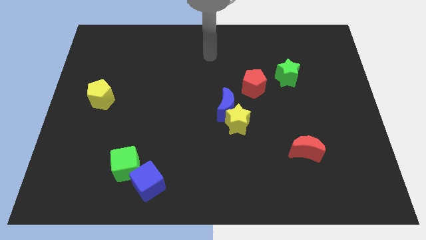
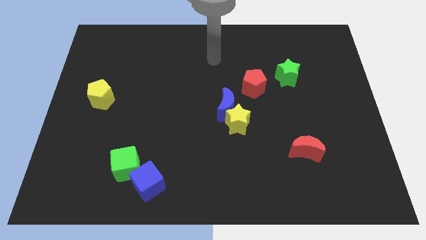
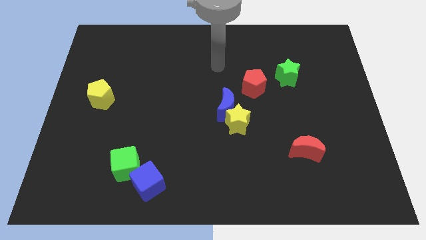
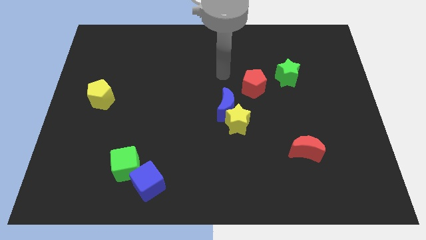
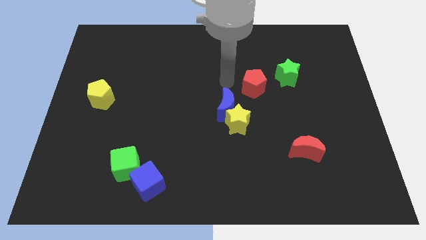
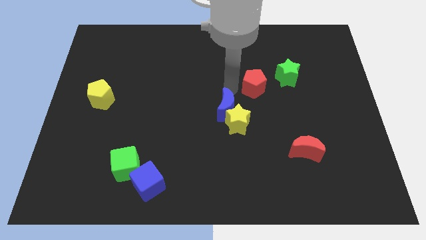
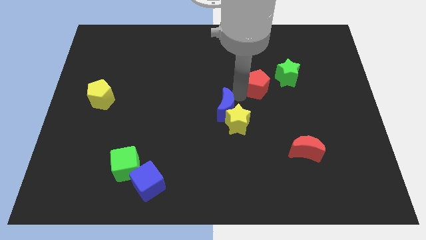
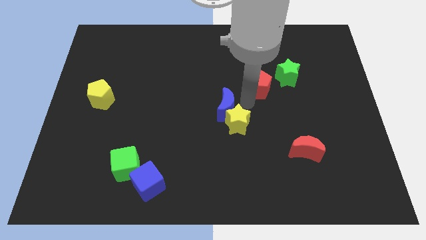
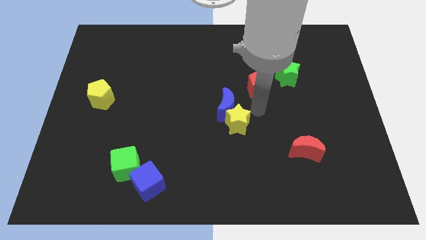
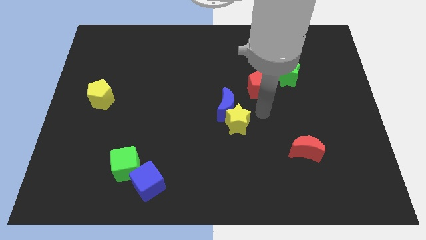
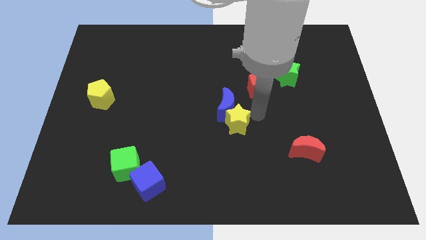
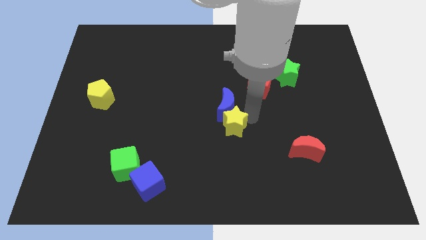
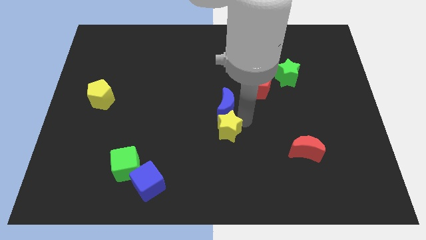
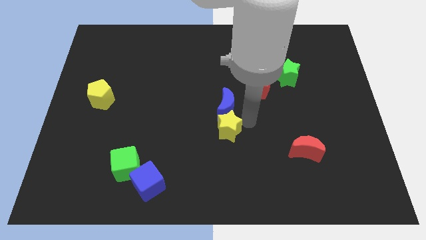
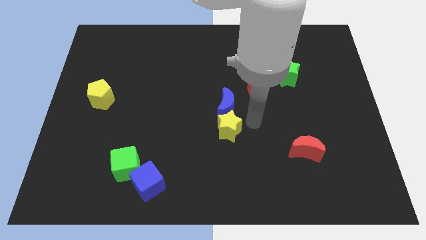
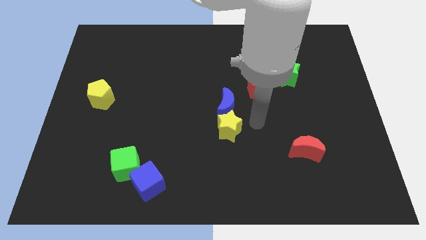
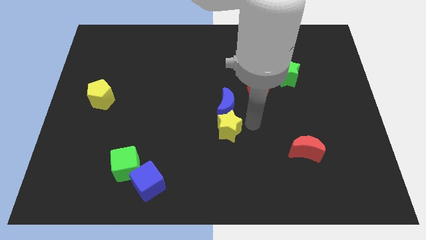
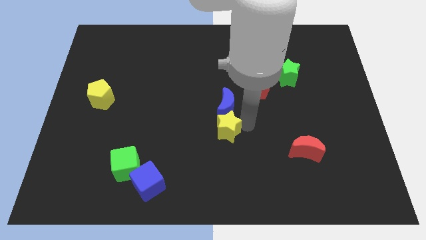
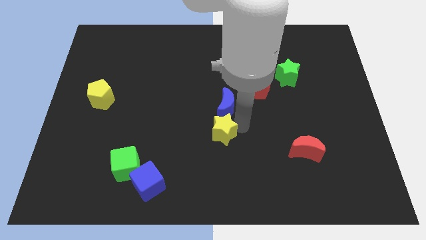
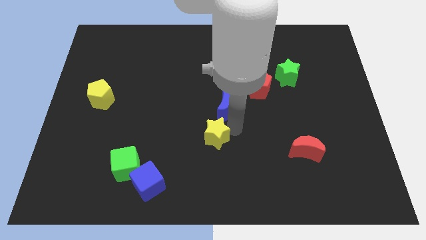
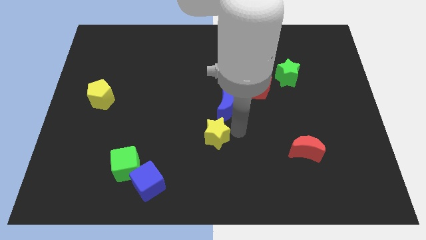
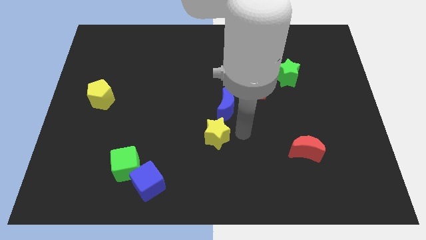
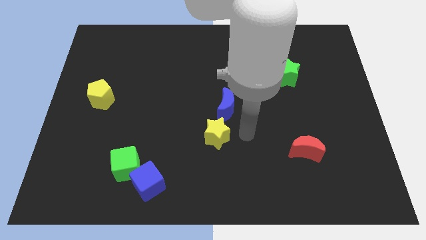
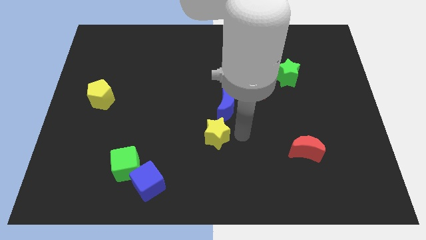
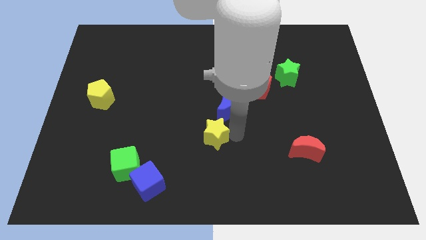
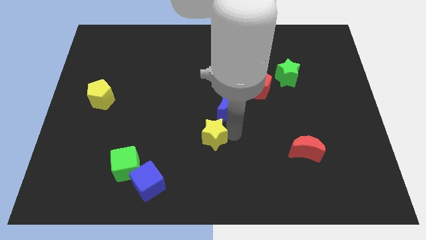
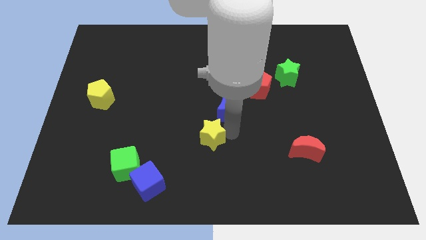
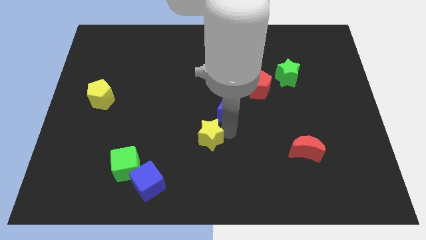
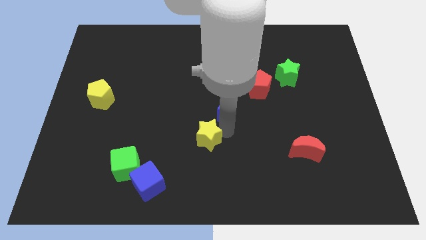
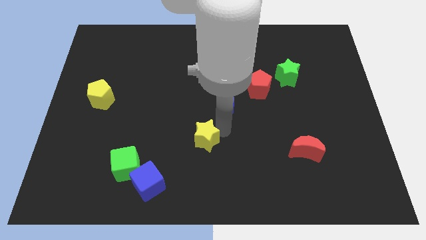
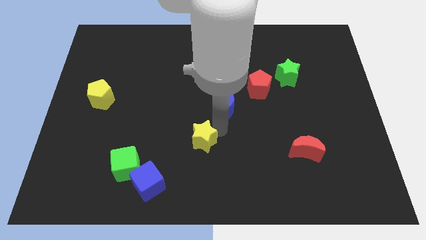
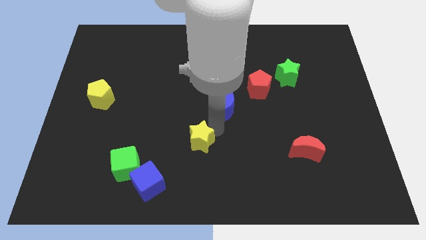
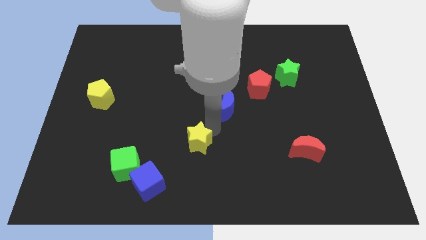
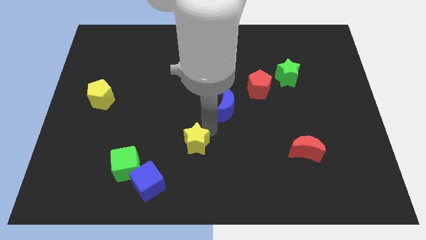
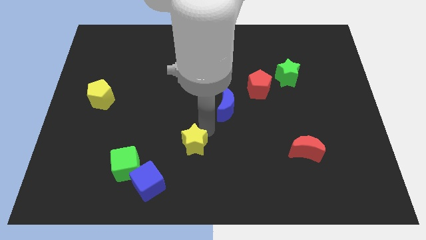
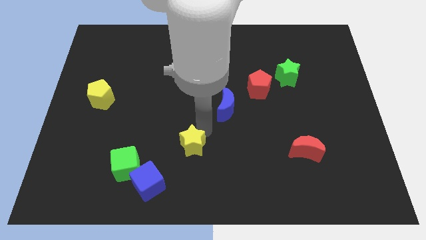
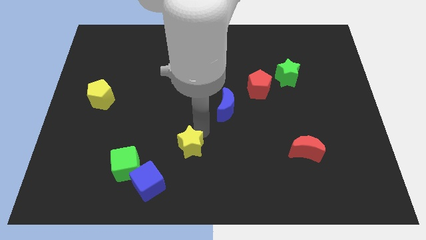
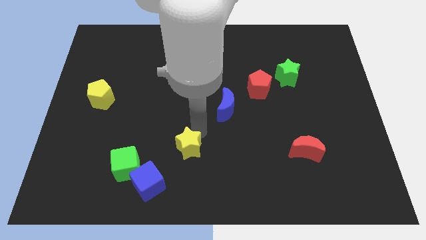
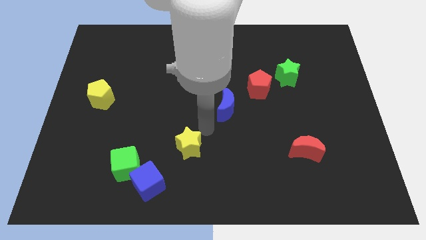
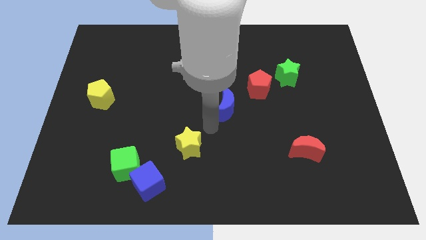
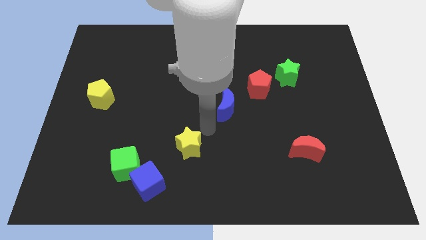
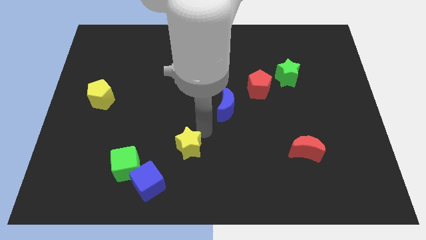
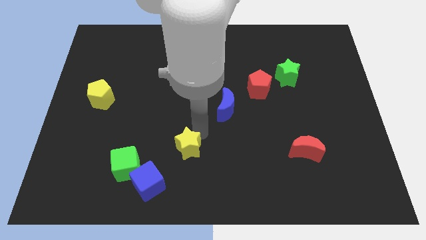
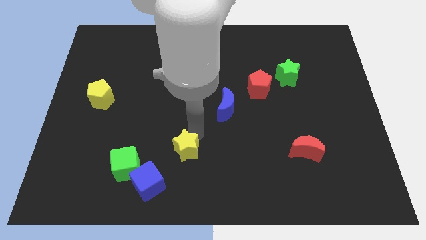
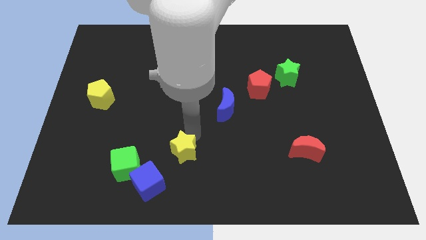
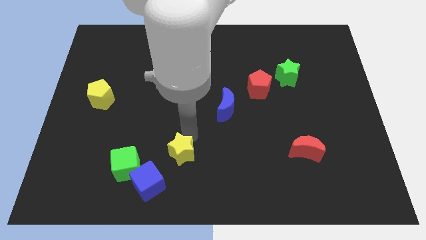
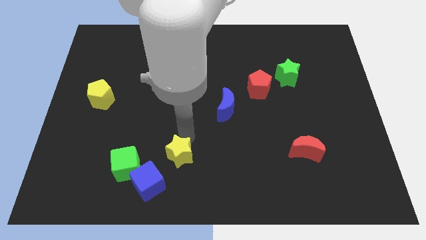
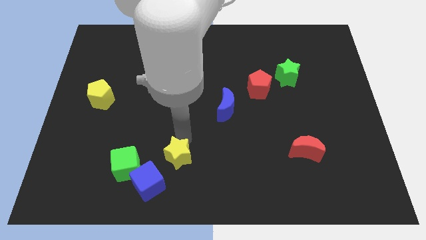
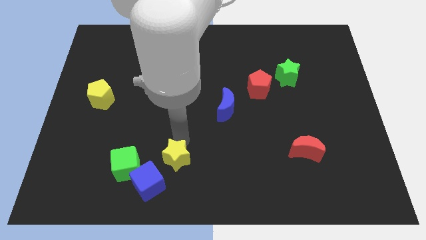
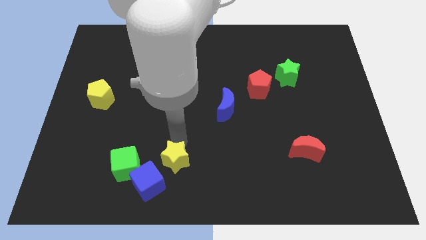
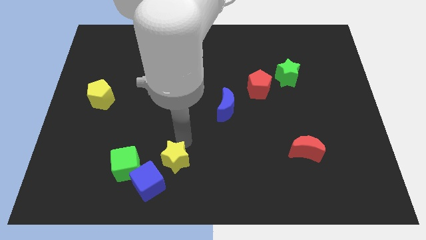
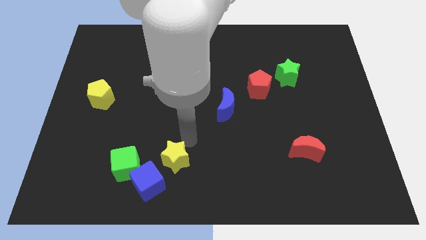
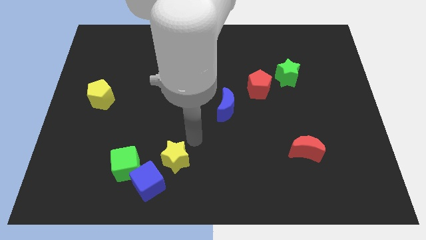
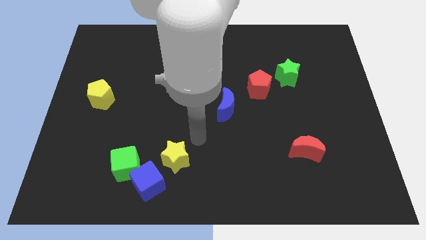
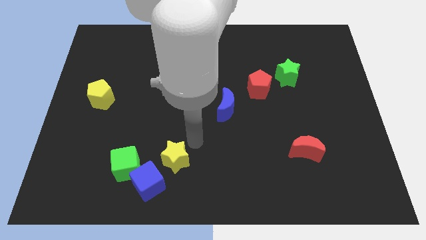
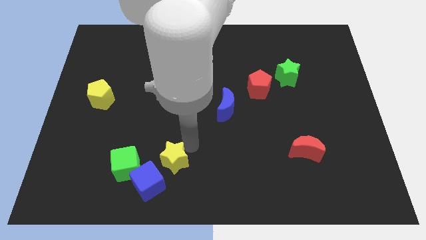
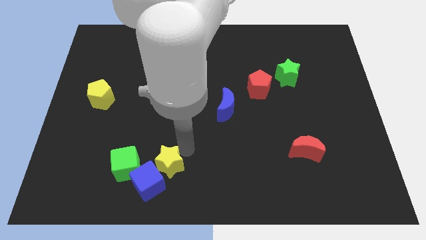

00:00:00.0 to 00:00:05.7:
move the yellow star towards the blue cube

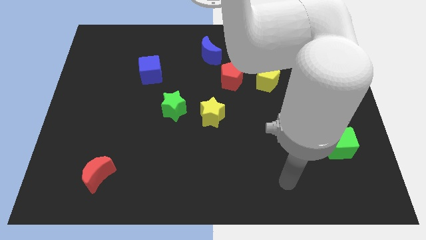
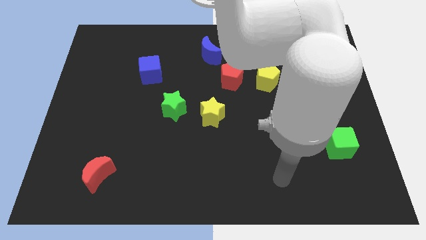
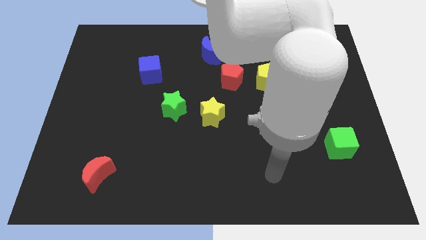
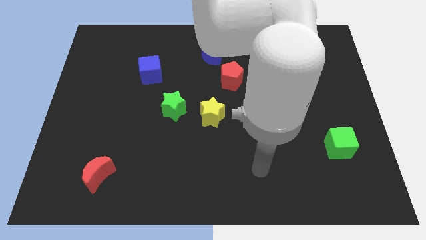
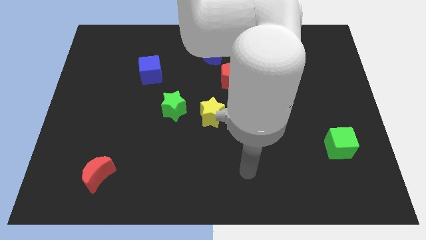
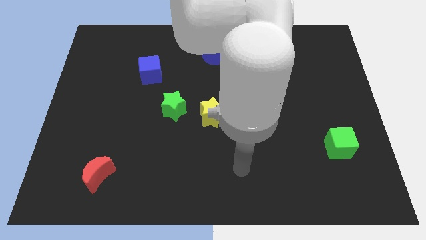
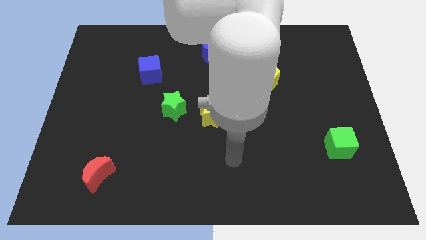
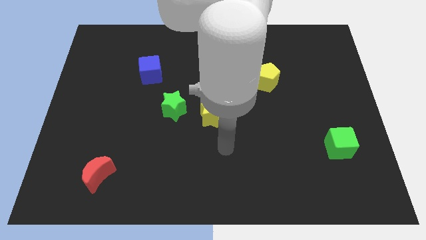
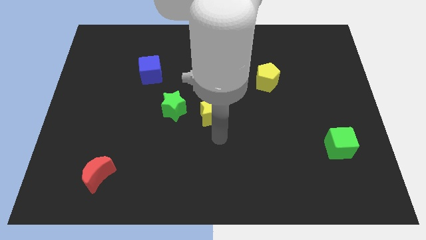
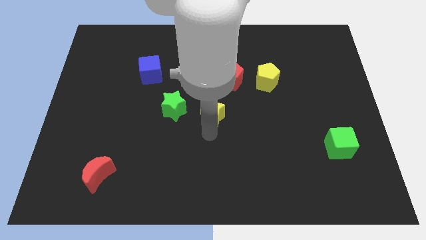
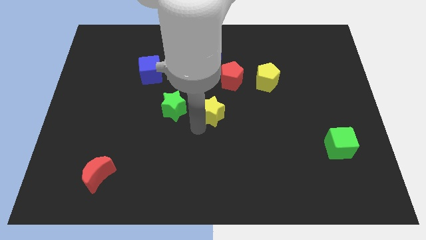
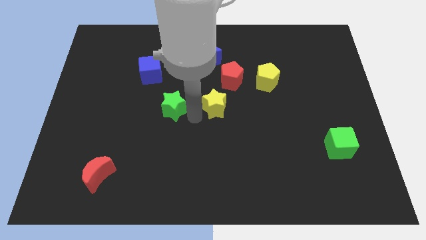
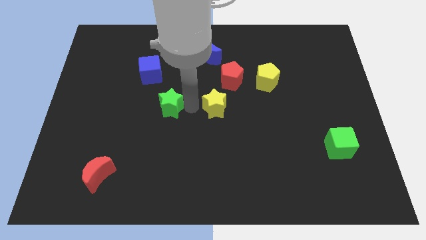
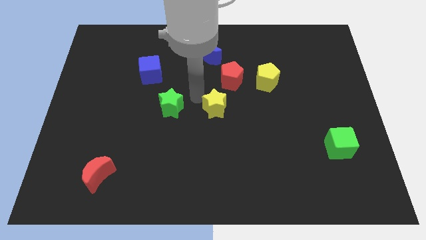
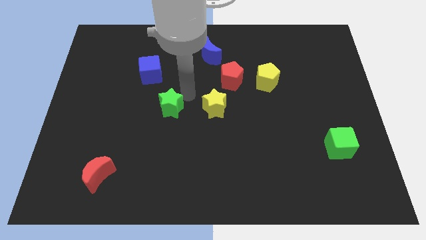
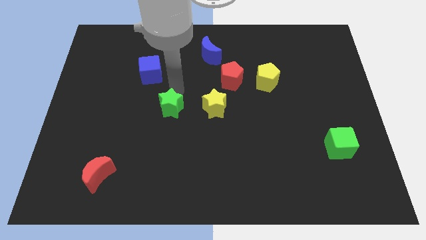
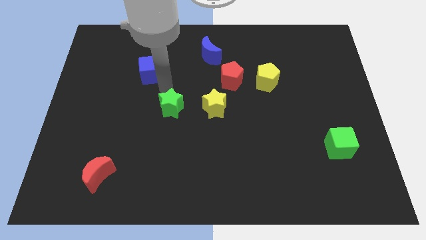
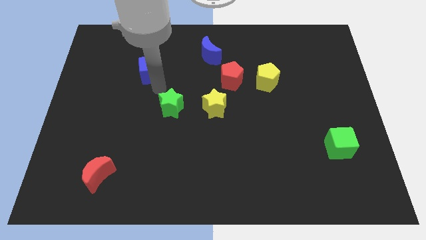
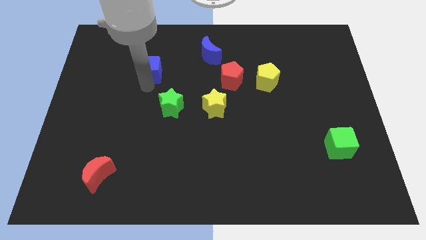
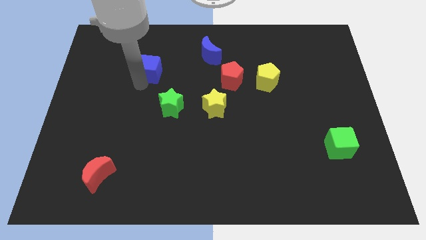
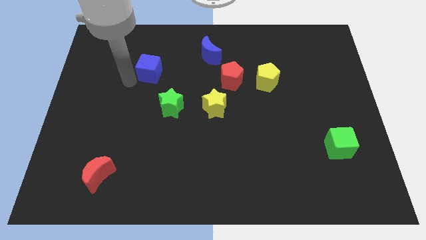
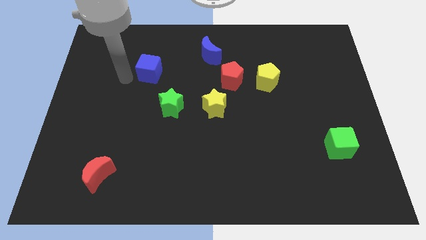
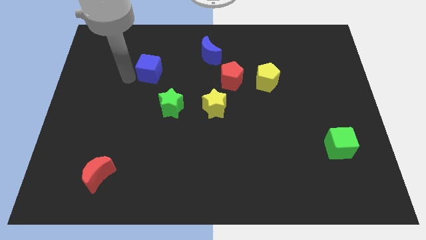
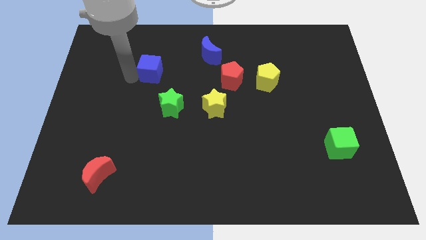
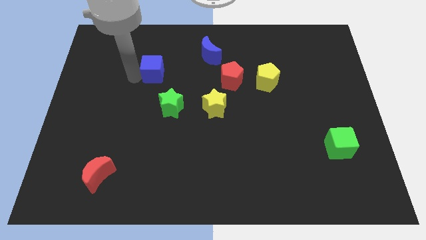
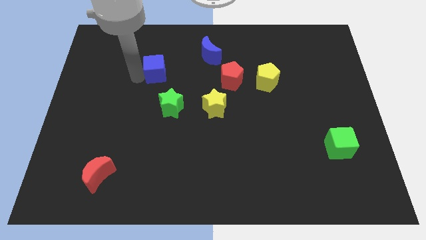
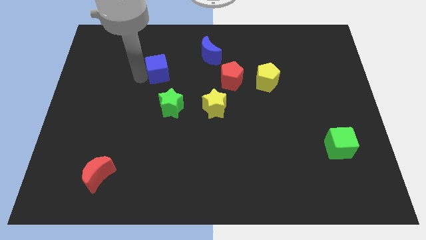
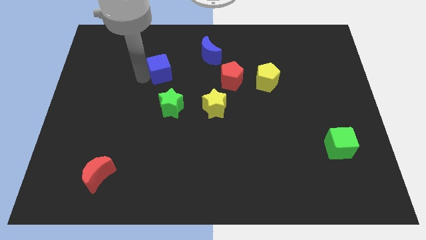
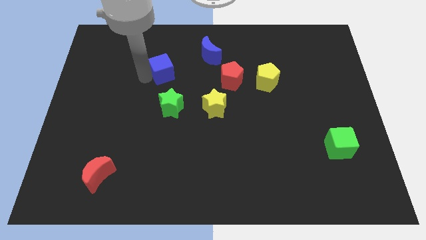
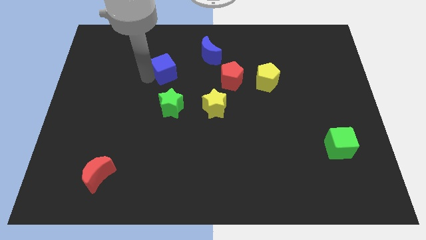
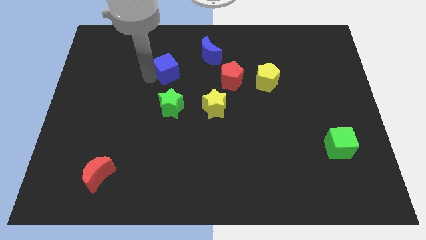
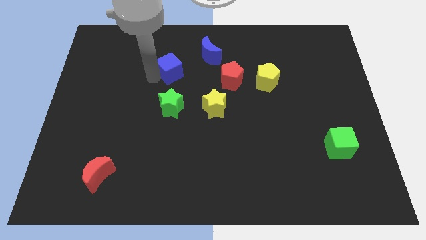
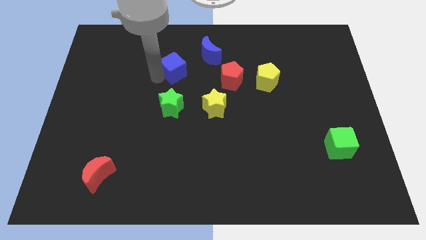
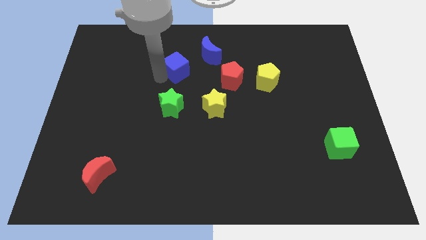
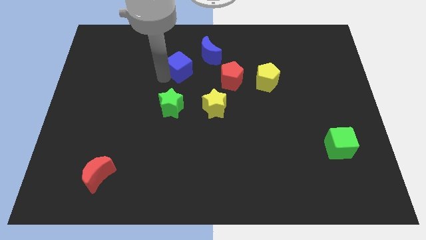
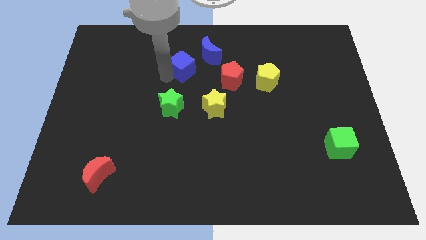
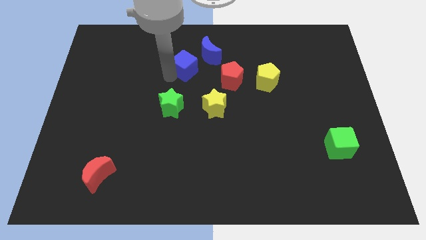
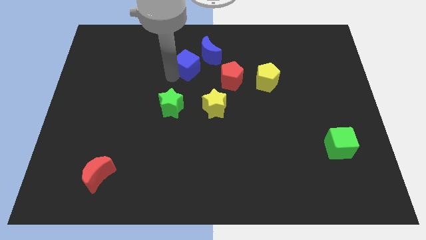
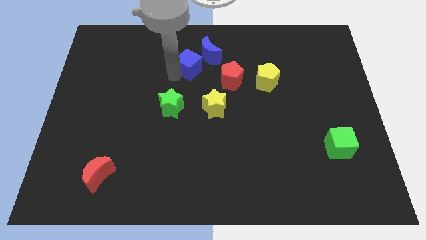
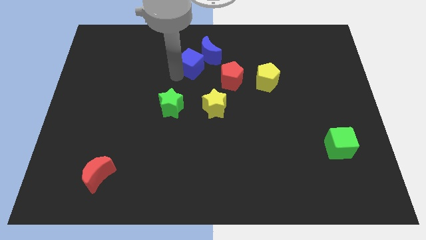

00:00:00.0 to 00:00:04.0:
put the blue cube towards the blue moon
